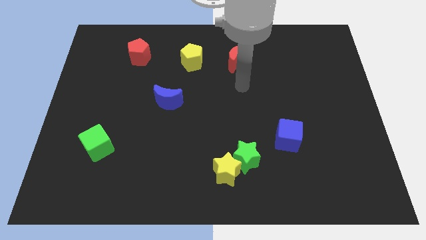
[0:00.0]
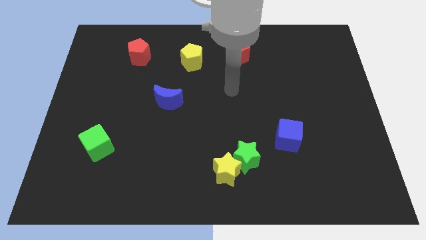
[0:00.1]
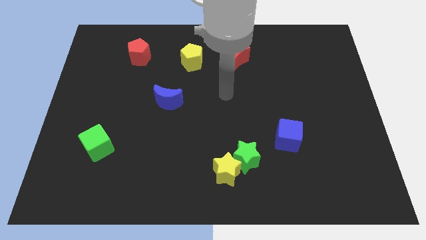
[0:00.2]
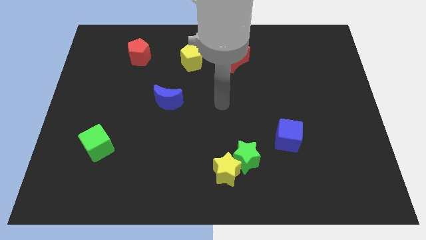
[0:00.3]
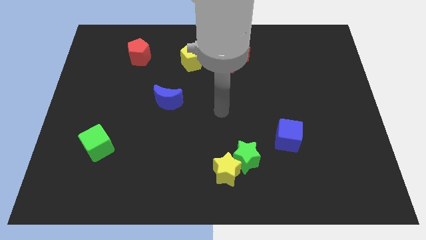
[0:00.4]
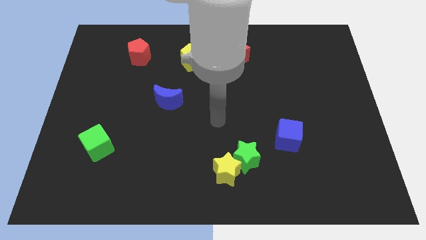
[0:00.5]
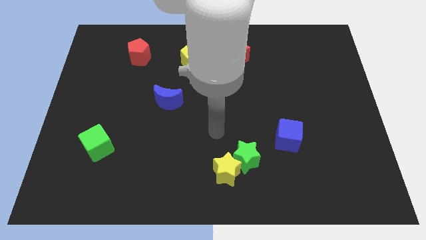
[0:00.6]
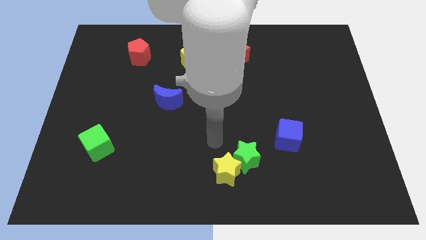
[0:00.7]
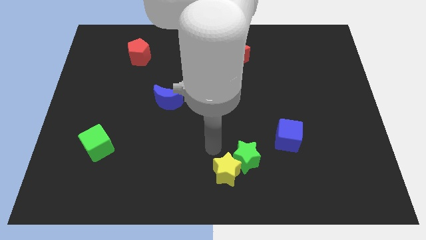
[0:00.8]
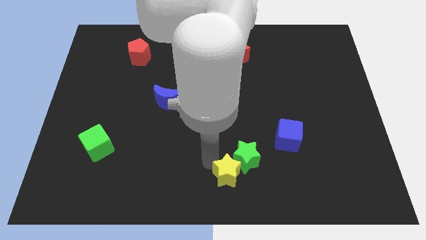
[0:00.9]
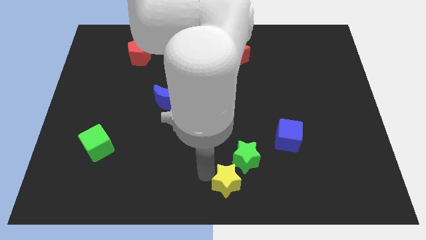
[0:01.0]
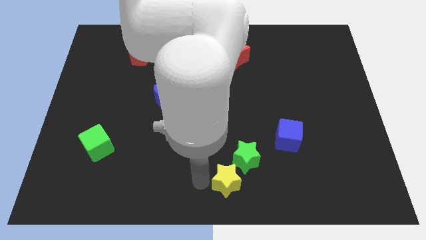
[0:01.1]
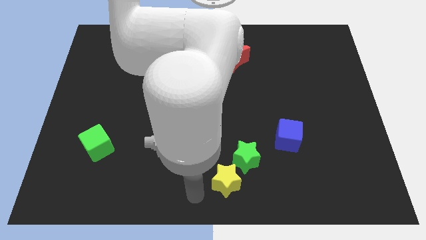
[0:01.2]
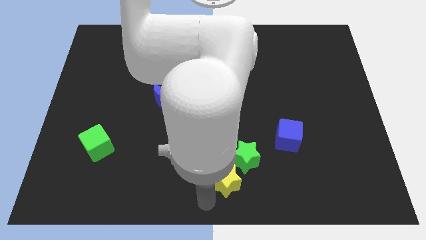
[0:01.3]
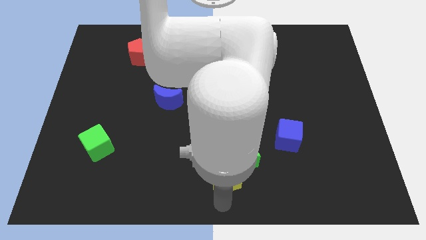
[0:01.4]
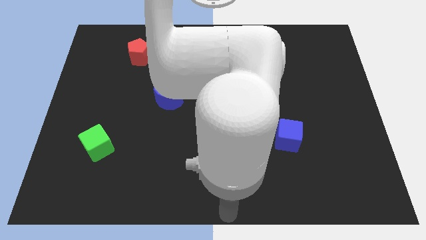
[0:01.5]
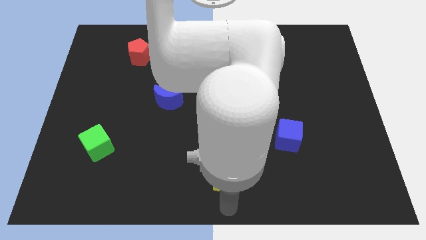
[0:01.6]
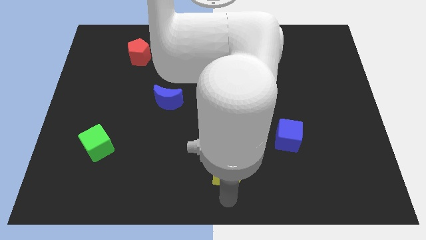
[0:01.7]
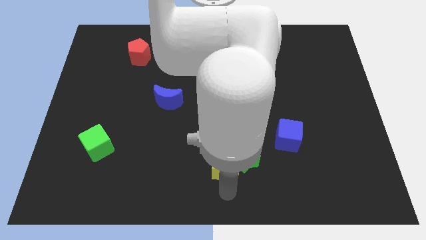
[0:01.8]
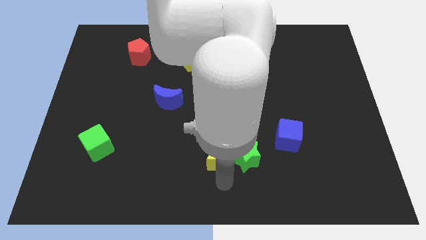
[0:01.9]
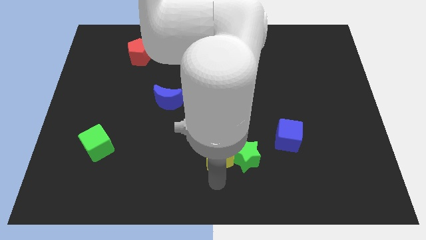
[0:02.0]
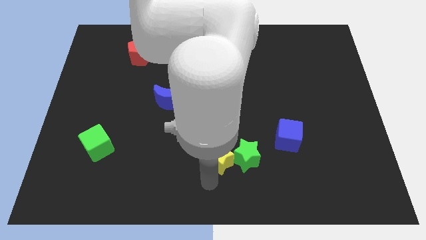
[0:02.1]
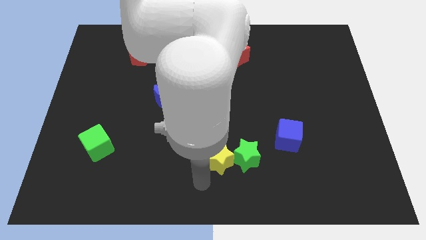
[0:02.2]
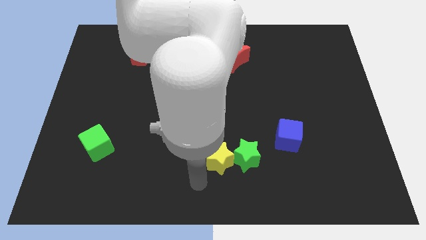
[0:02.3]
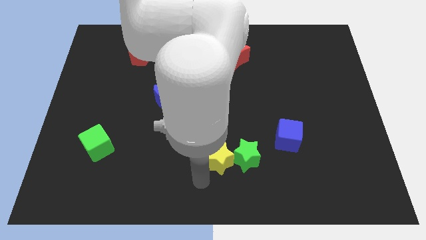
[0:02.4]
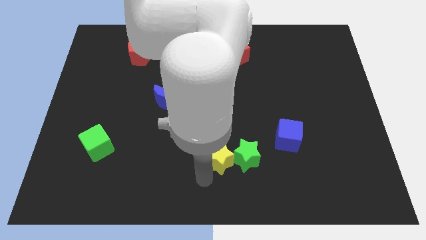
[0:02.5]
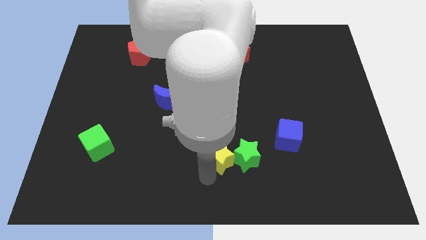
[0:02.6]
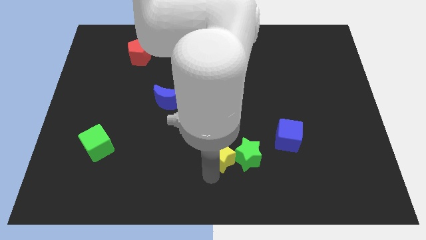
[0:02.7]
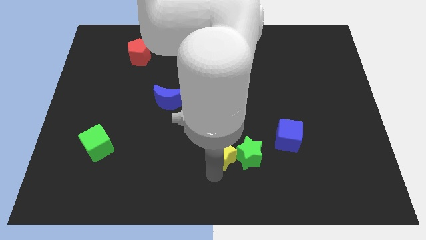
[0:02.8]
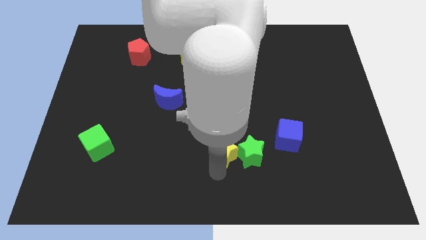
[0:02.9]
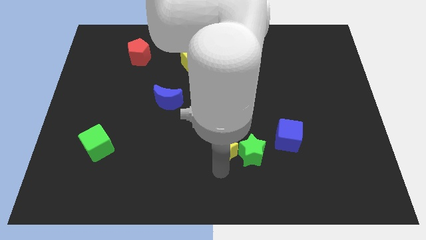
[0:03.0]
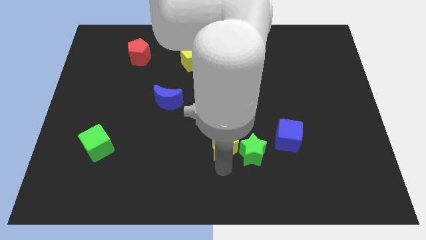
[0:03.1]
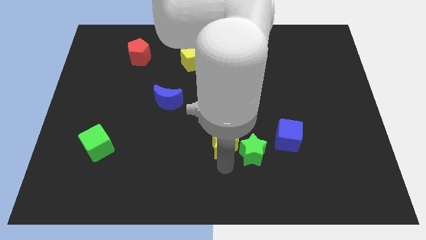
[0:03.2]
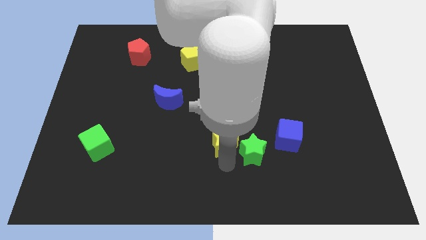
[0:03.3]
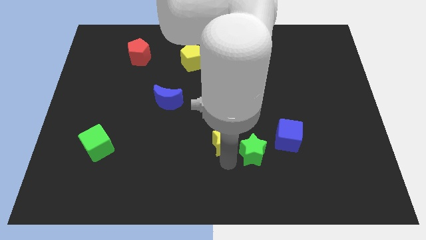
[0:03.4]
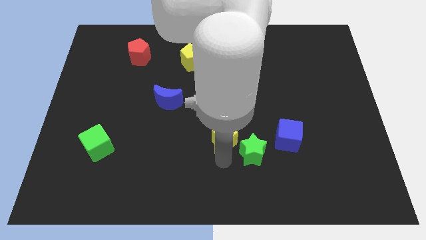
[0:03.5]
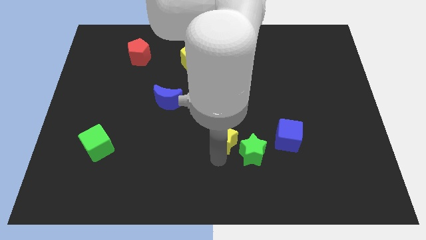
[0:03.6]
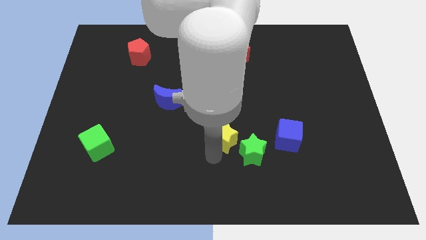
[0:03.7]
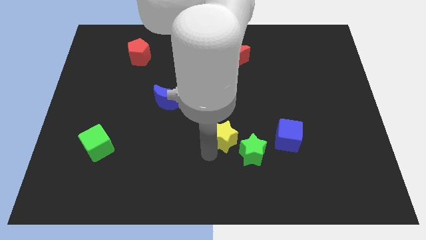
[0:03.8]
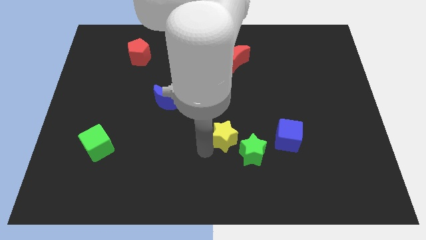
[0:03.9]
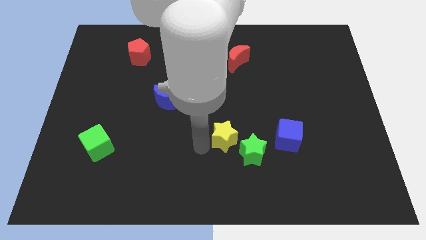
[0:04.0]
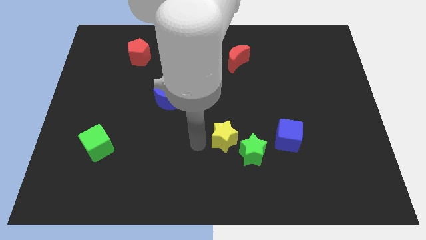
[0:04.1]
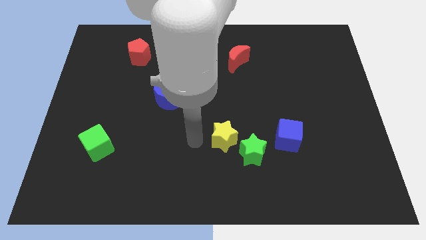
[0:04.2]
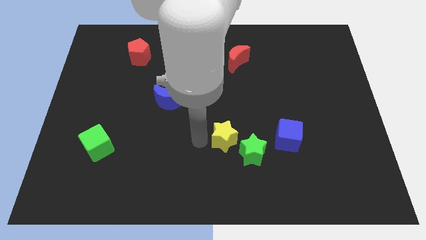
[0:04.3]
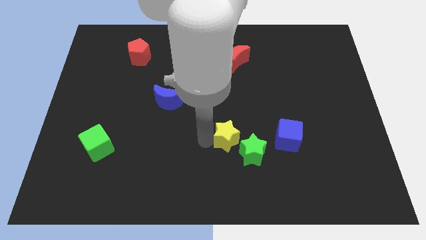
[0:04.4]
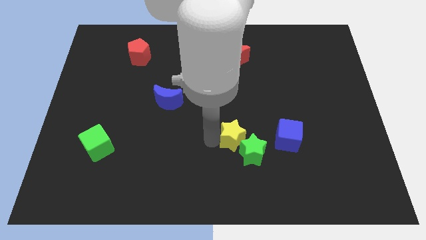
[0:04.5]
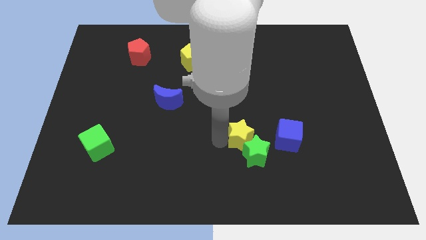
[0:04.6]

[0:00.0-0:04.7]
push the yellow star somewhat up and then to the right

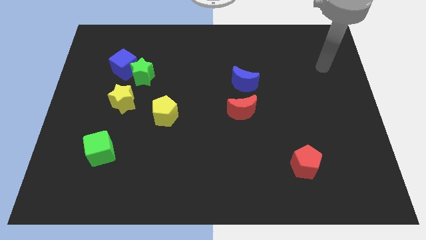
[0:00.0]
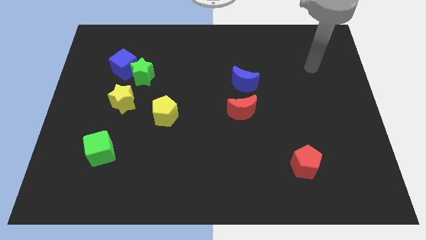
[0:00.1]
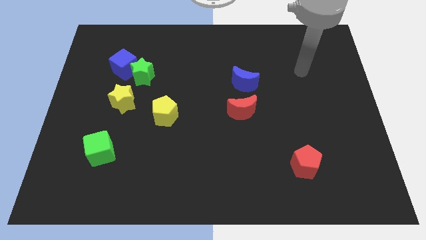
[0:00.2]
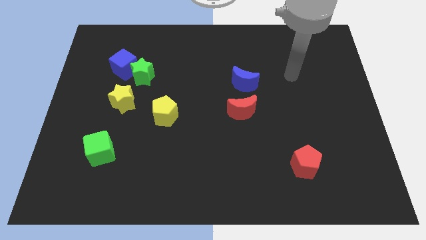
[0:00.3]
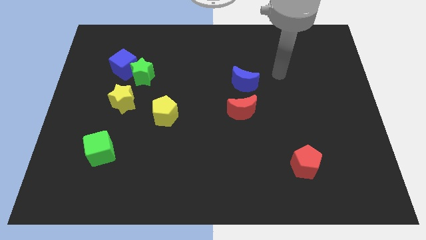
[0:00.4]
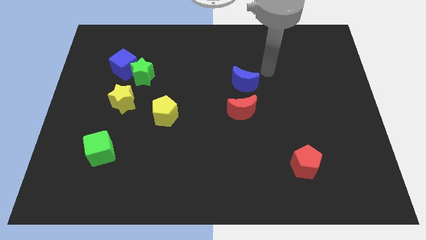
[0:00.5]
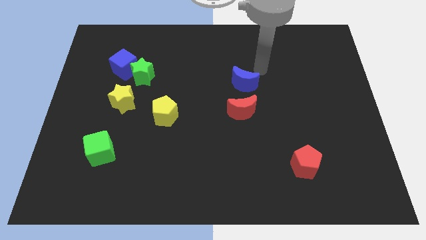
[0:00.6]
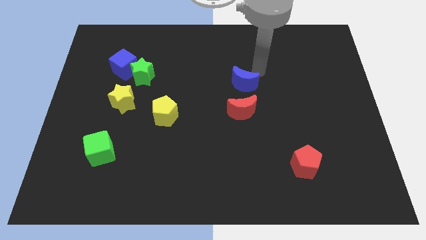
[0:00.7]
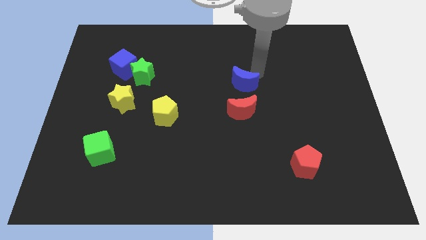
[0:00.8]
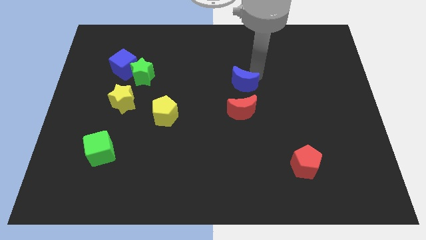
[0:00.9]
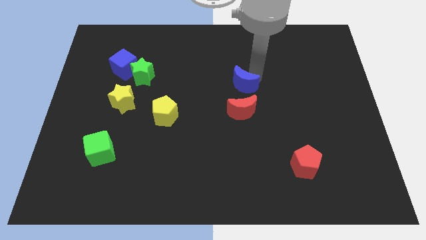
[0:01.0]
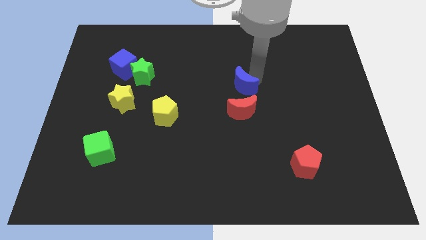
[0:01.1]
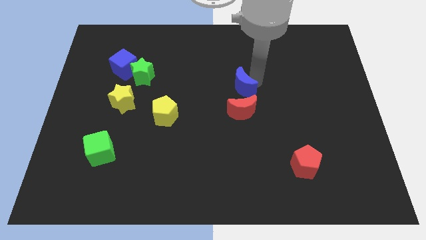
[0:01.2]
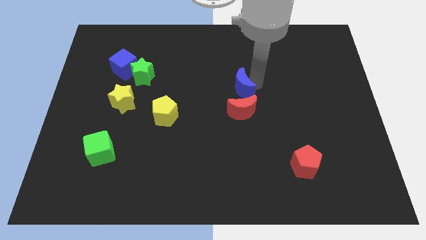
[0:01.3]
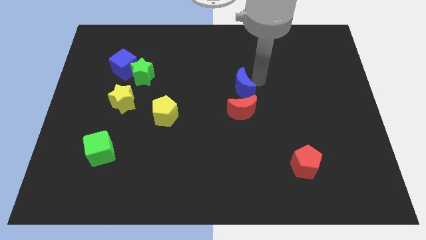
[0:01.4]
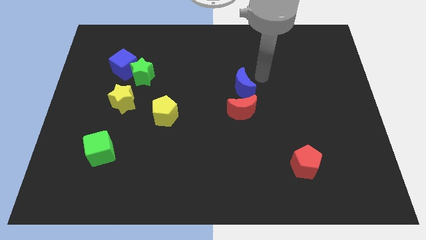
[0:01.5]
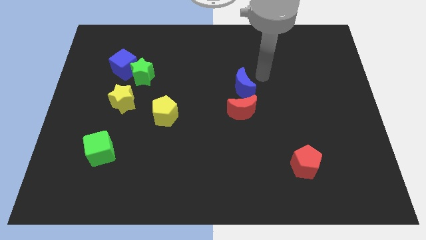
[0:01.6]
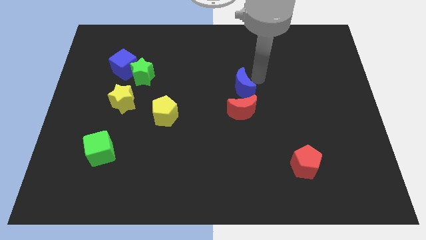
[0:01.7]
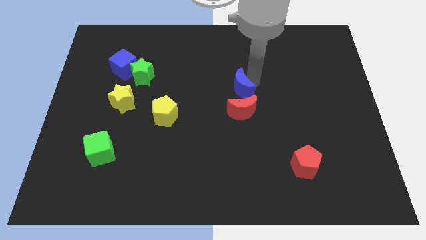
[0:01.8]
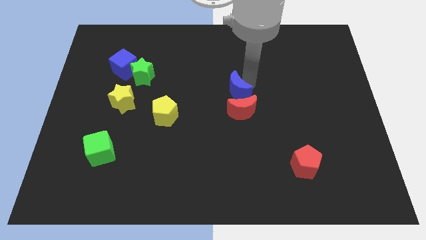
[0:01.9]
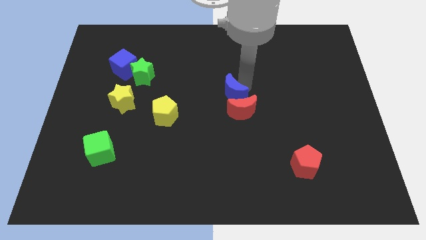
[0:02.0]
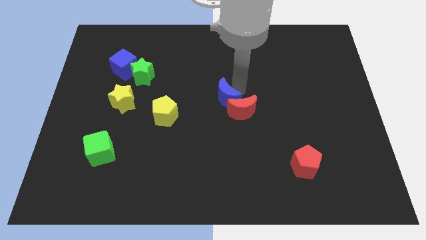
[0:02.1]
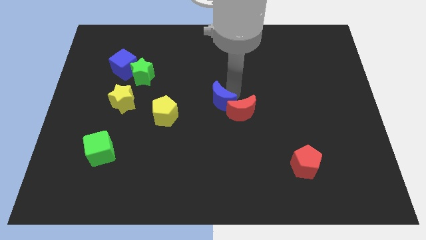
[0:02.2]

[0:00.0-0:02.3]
push the blue moon diagonally downwards and to the left somewhat

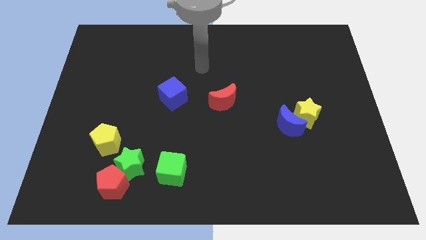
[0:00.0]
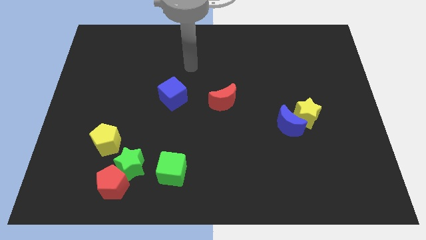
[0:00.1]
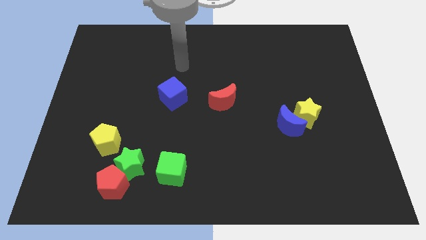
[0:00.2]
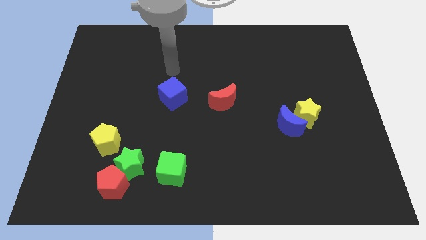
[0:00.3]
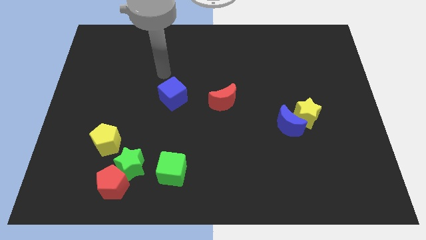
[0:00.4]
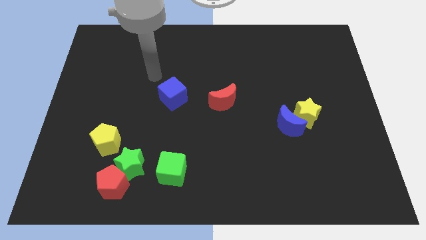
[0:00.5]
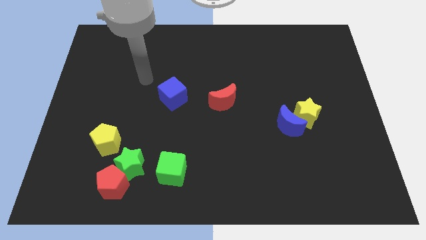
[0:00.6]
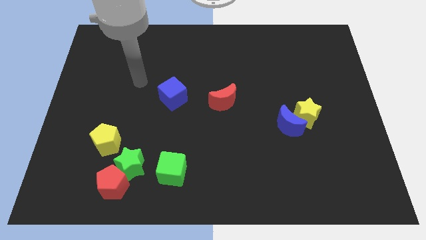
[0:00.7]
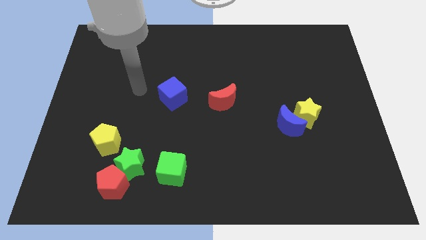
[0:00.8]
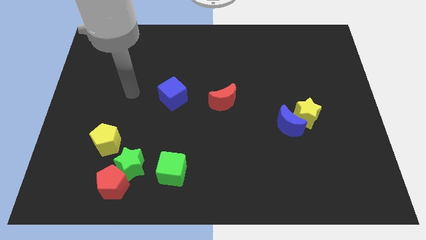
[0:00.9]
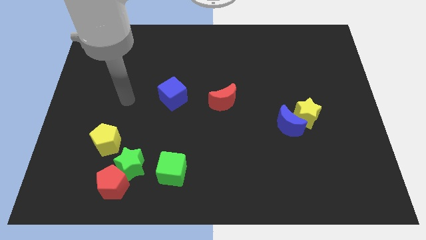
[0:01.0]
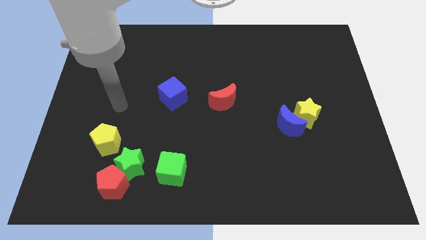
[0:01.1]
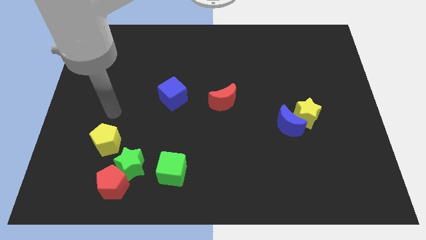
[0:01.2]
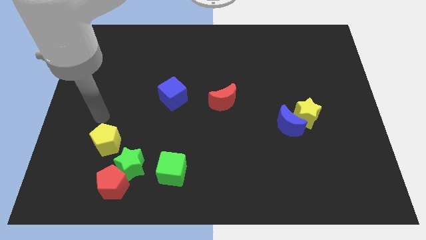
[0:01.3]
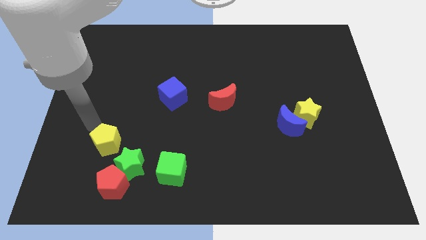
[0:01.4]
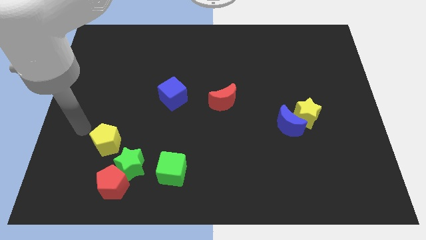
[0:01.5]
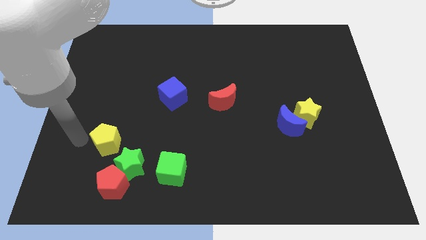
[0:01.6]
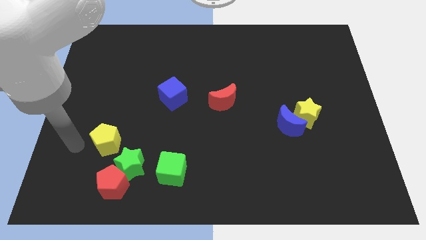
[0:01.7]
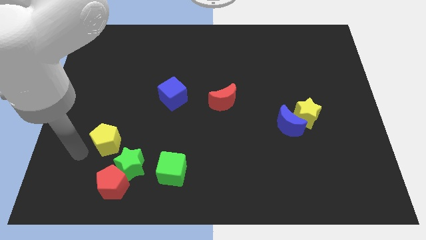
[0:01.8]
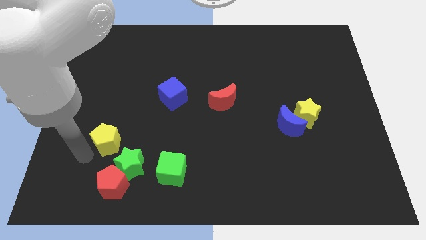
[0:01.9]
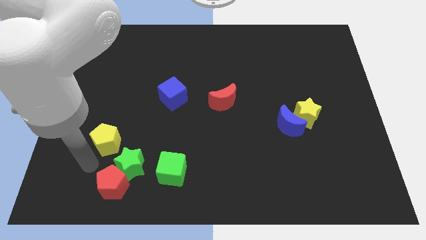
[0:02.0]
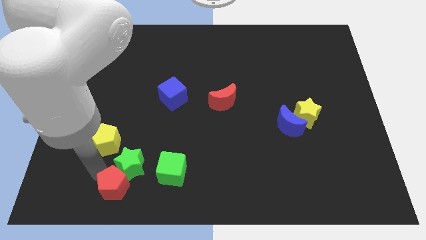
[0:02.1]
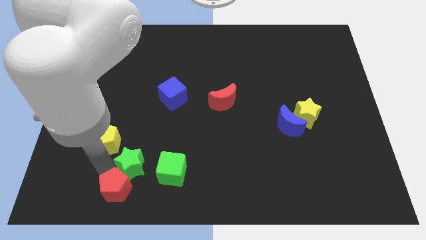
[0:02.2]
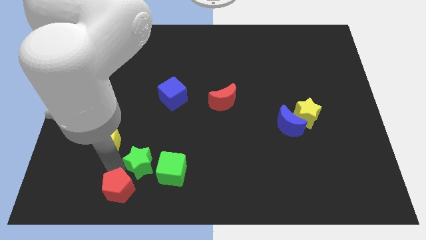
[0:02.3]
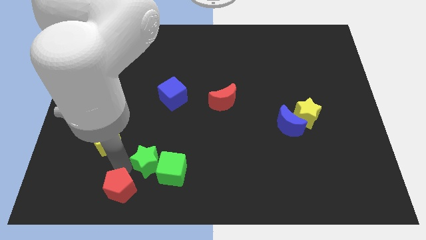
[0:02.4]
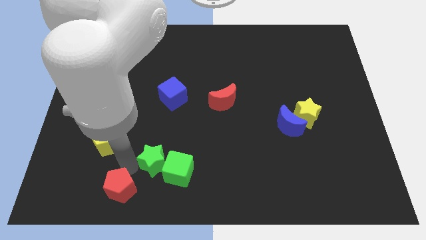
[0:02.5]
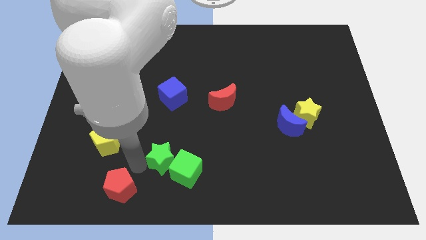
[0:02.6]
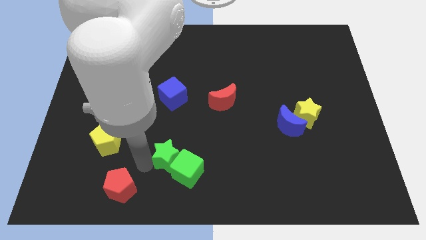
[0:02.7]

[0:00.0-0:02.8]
move the green star a little bit to the right
